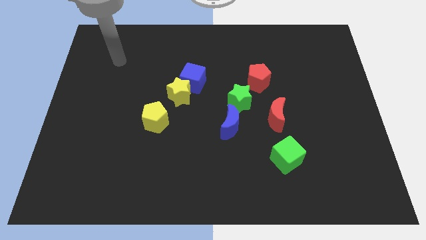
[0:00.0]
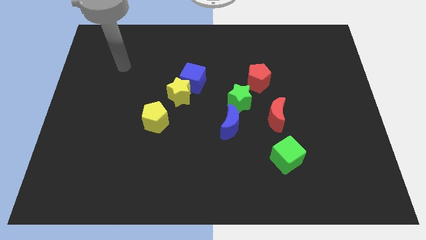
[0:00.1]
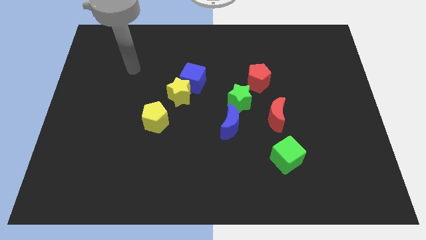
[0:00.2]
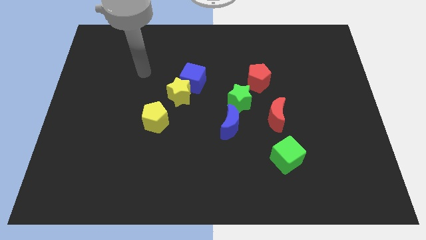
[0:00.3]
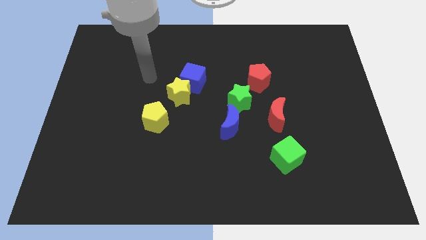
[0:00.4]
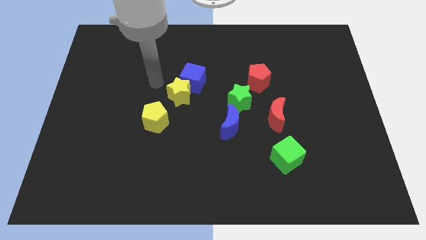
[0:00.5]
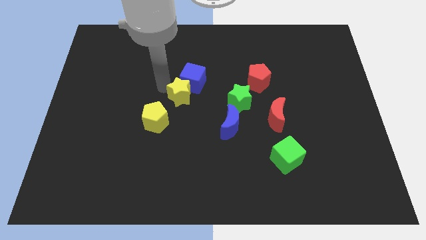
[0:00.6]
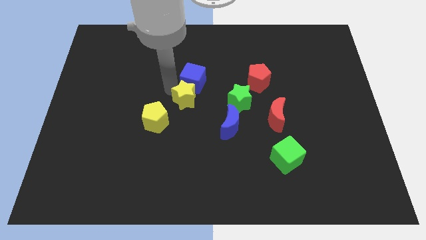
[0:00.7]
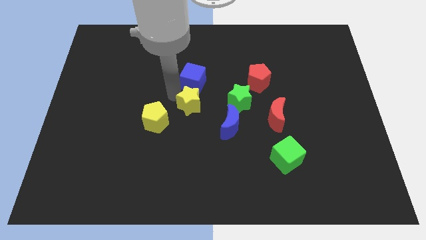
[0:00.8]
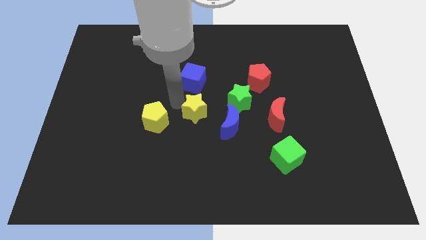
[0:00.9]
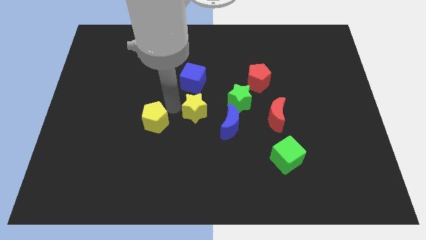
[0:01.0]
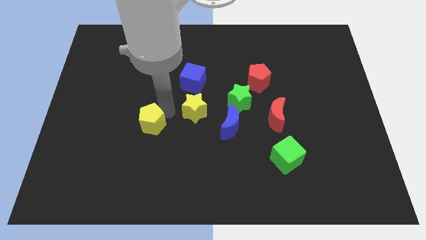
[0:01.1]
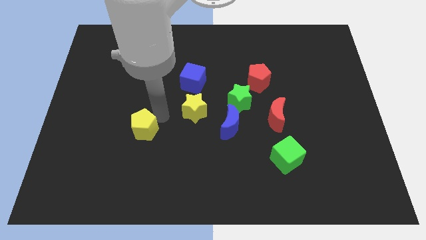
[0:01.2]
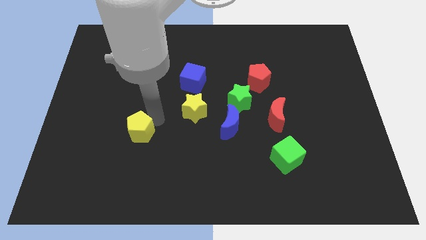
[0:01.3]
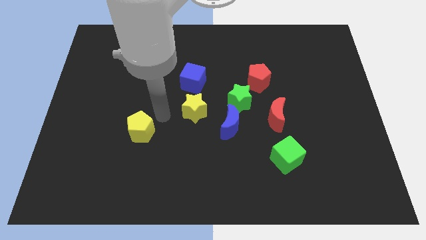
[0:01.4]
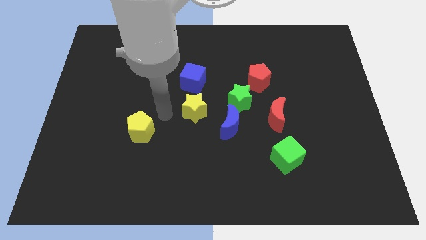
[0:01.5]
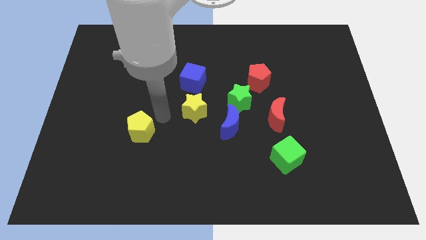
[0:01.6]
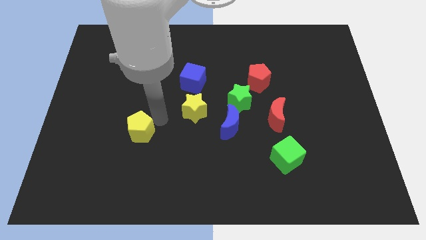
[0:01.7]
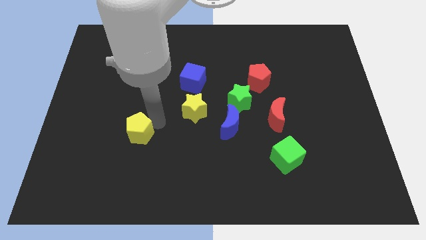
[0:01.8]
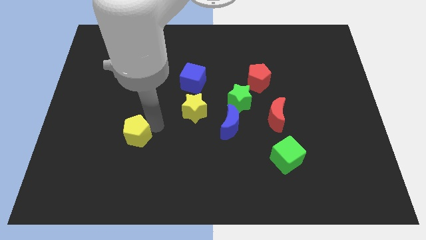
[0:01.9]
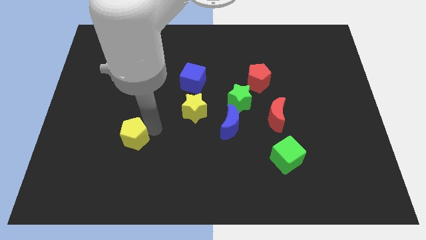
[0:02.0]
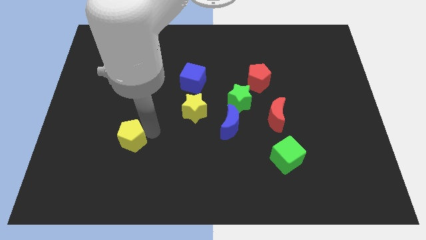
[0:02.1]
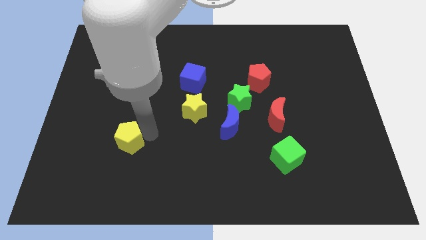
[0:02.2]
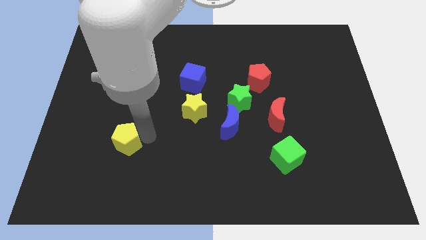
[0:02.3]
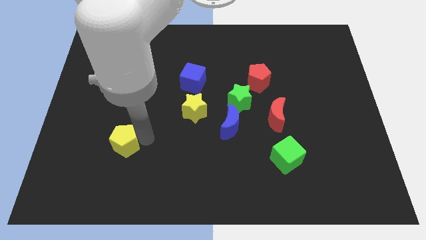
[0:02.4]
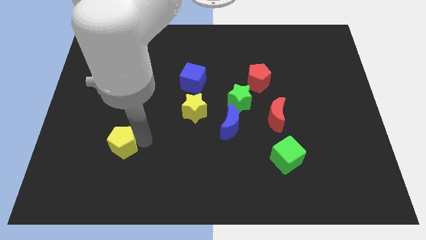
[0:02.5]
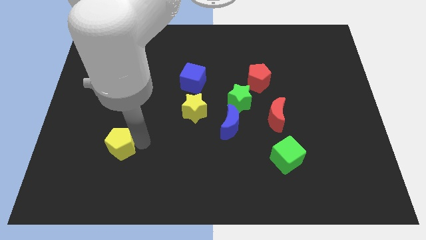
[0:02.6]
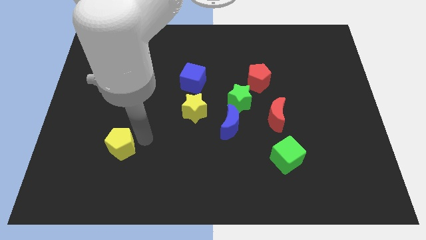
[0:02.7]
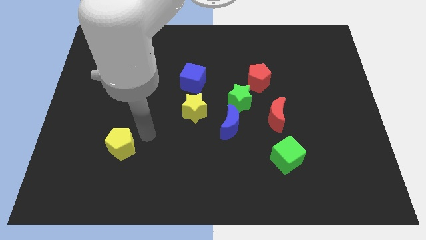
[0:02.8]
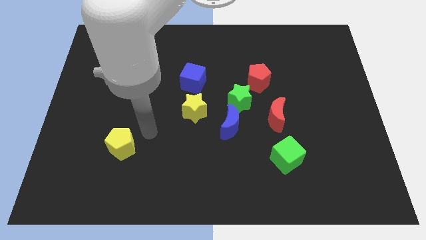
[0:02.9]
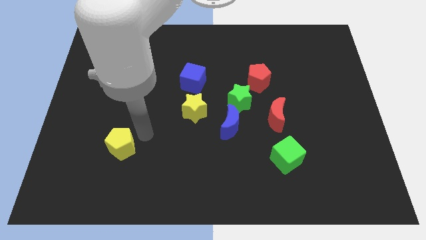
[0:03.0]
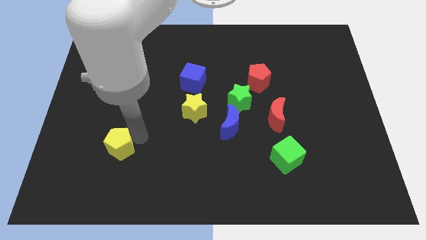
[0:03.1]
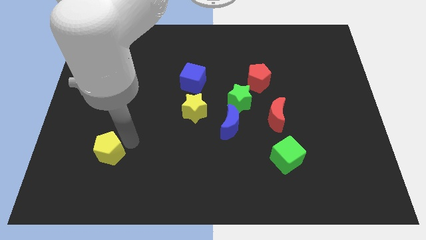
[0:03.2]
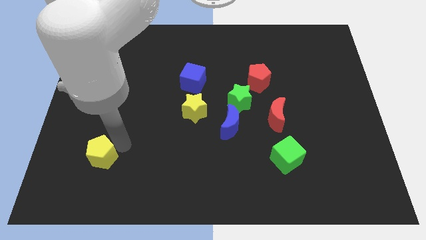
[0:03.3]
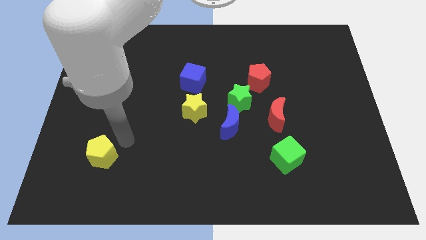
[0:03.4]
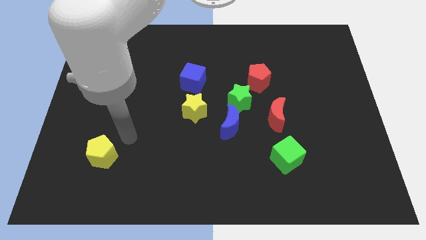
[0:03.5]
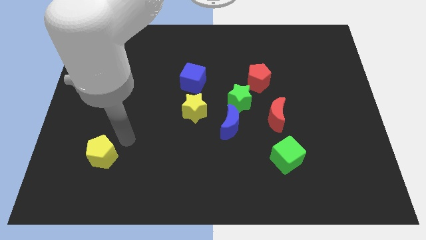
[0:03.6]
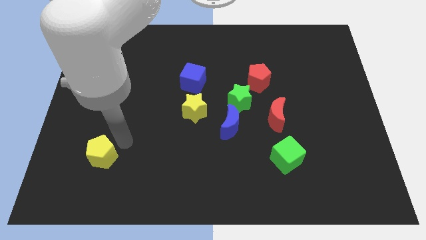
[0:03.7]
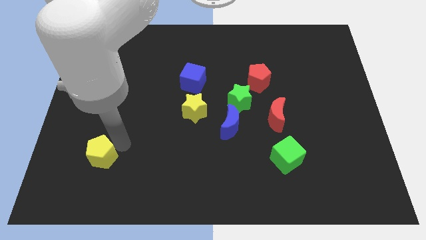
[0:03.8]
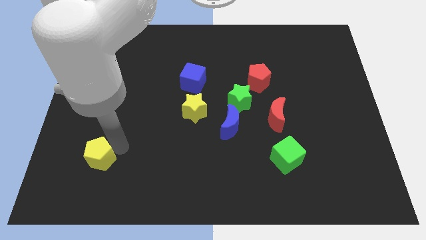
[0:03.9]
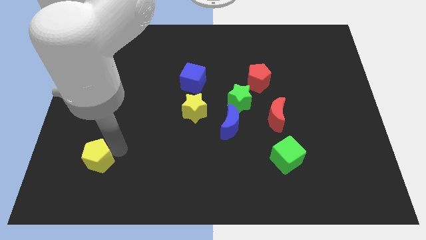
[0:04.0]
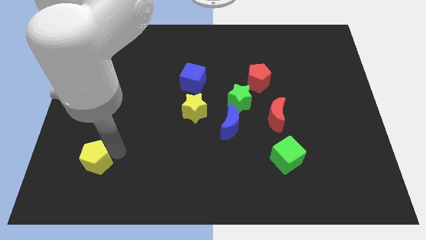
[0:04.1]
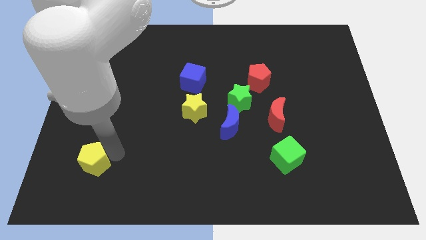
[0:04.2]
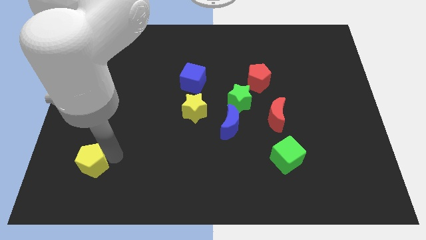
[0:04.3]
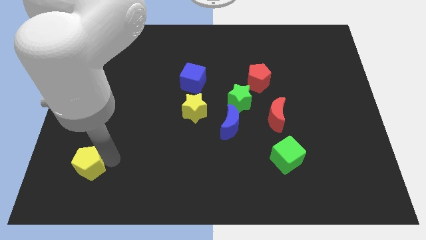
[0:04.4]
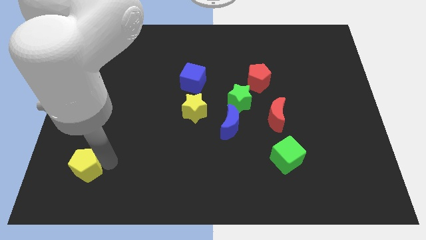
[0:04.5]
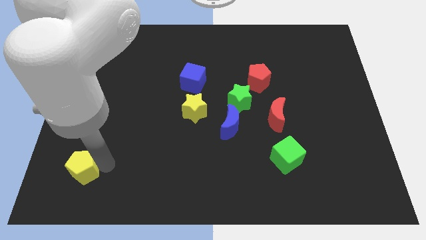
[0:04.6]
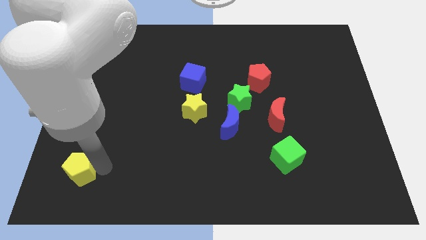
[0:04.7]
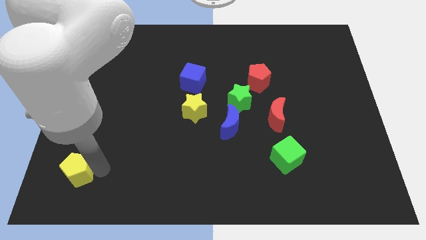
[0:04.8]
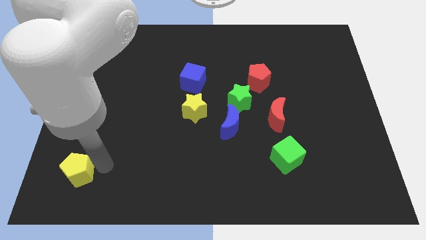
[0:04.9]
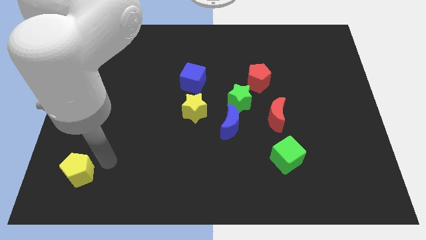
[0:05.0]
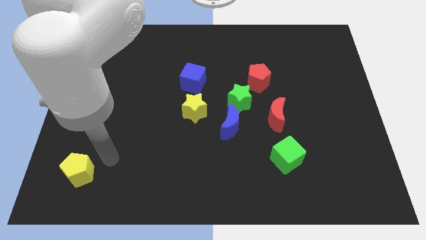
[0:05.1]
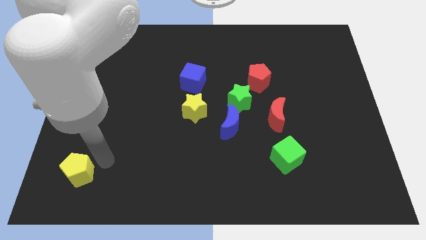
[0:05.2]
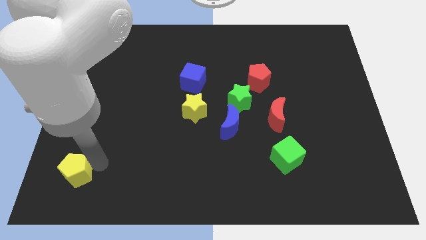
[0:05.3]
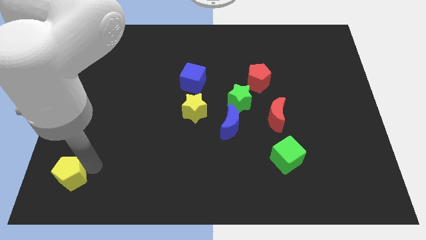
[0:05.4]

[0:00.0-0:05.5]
put the yellow pentagon to the lower left corner

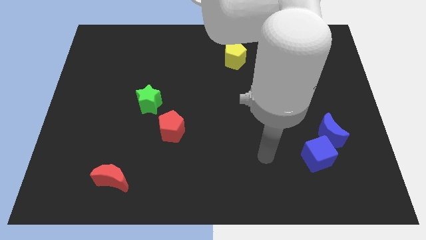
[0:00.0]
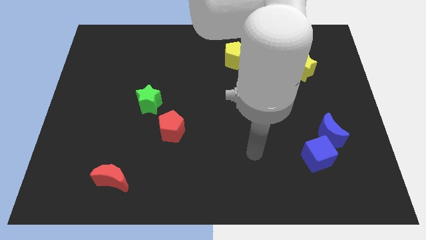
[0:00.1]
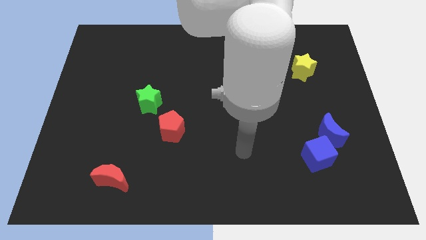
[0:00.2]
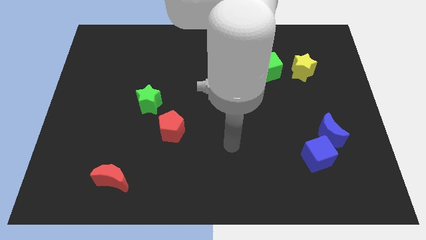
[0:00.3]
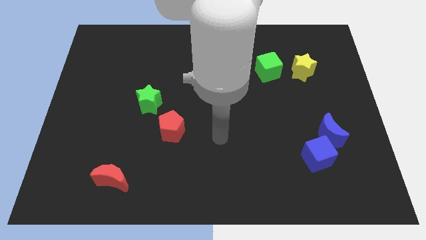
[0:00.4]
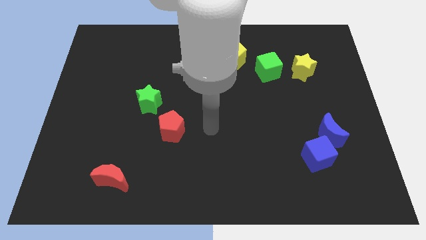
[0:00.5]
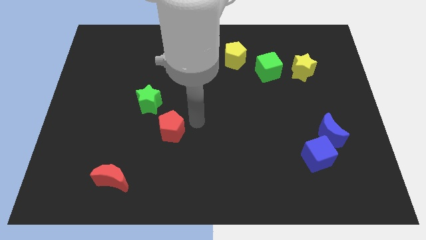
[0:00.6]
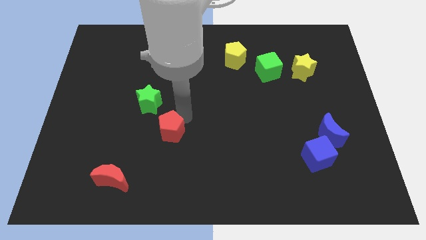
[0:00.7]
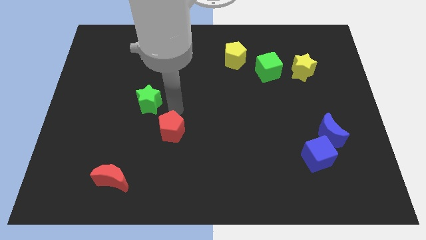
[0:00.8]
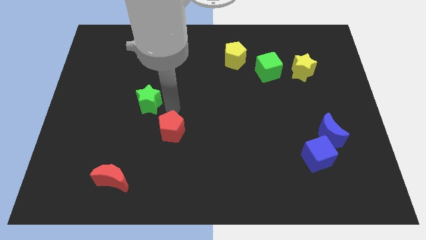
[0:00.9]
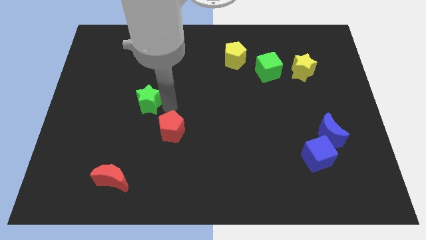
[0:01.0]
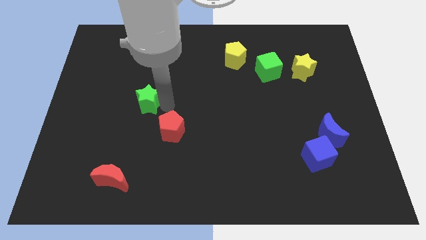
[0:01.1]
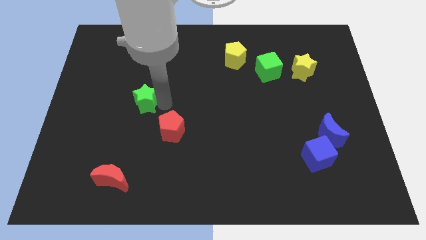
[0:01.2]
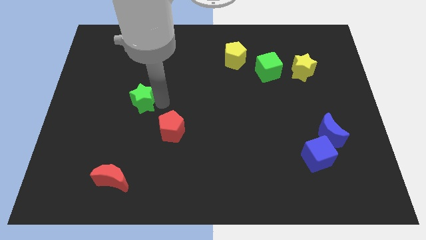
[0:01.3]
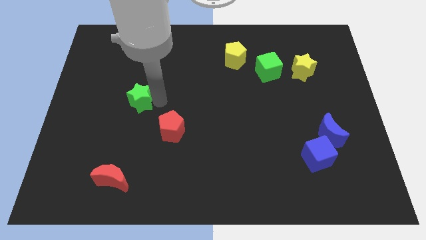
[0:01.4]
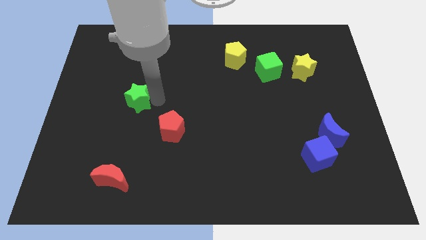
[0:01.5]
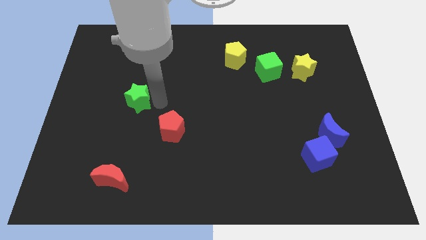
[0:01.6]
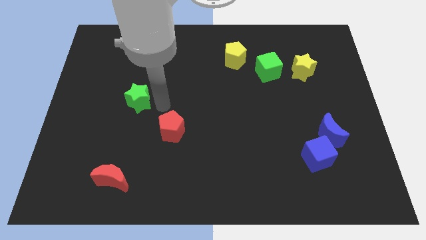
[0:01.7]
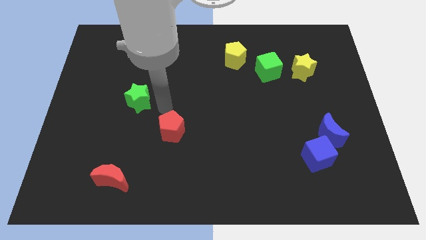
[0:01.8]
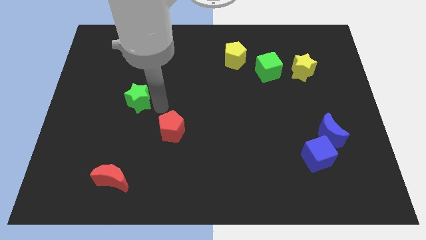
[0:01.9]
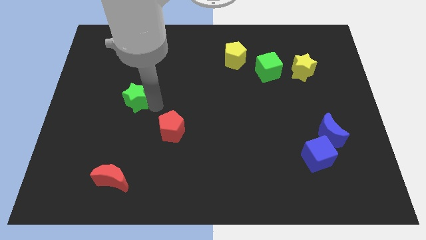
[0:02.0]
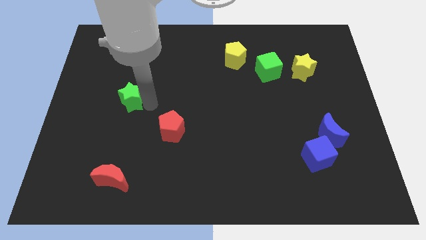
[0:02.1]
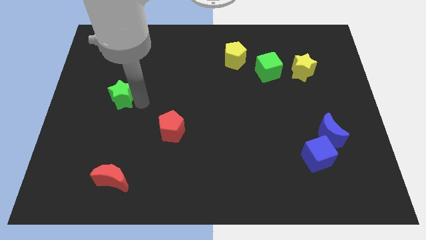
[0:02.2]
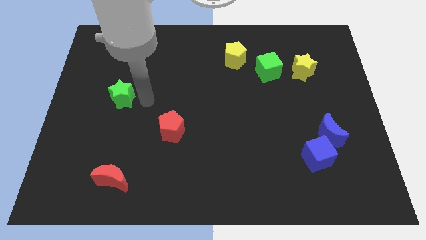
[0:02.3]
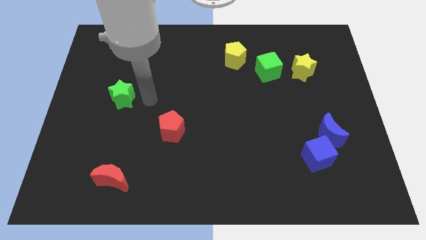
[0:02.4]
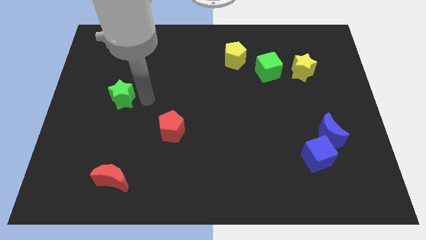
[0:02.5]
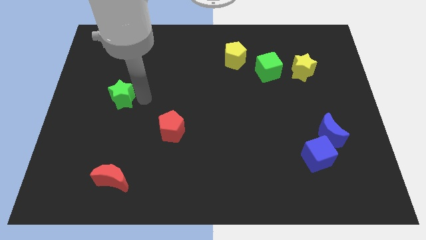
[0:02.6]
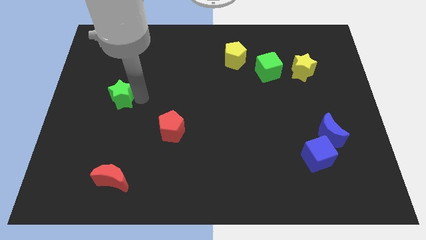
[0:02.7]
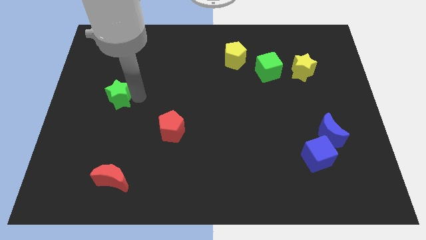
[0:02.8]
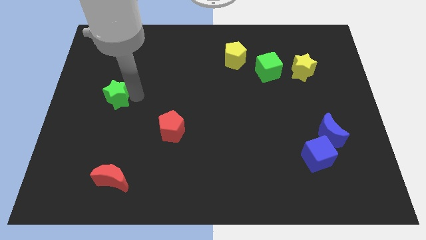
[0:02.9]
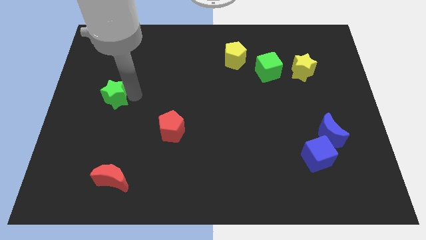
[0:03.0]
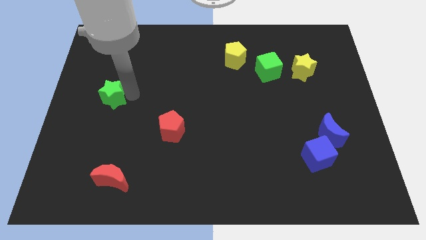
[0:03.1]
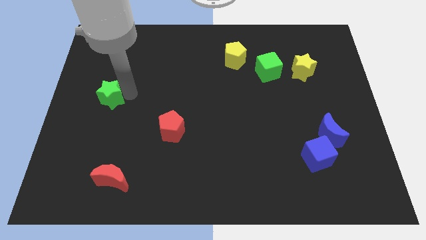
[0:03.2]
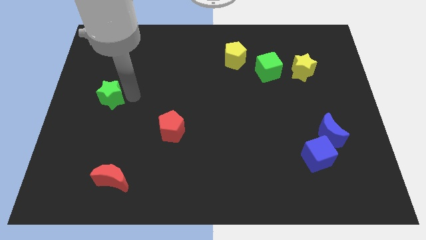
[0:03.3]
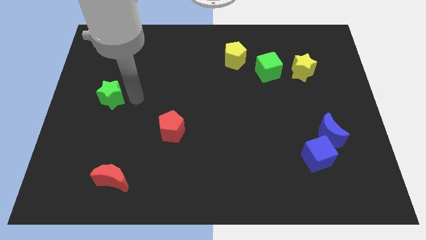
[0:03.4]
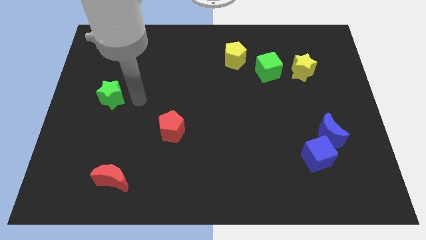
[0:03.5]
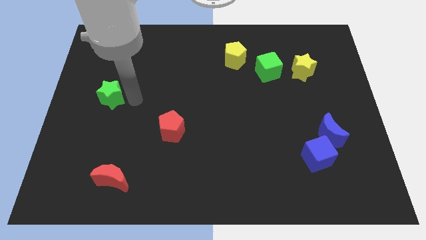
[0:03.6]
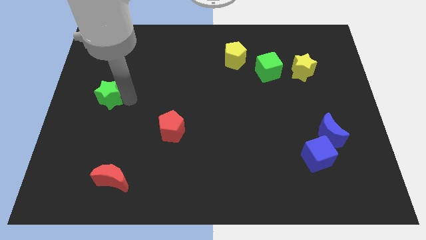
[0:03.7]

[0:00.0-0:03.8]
move the green star to the center left
